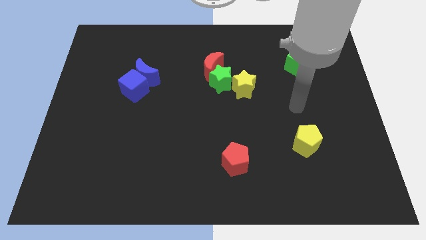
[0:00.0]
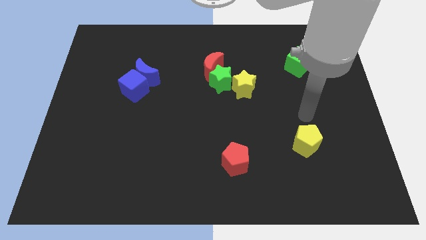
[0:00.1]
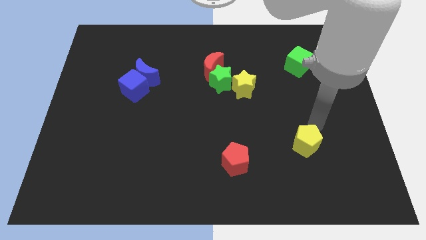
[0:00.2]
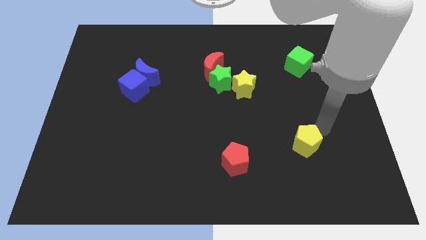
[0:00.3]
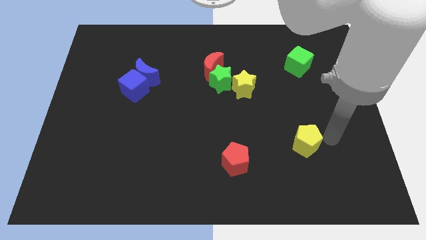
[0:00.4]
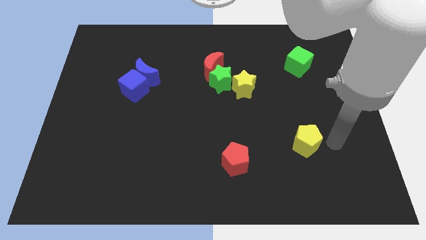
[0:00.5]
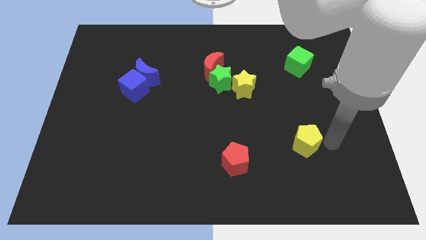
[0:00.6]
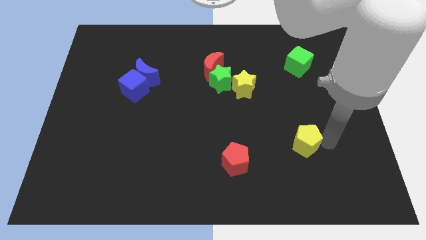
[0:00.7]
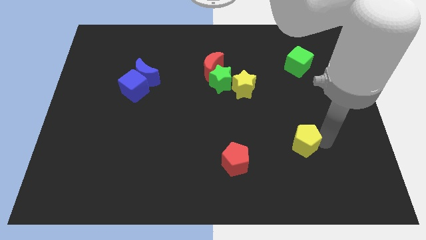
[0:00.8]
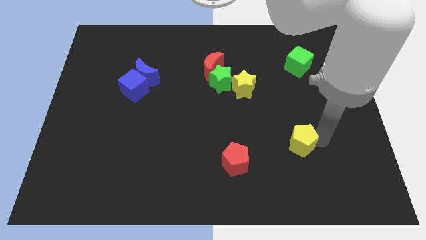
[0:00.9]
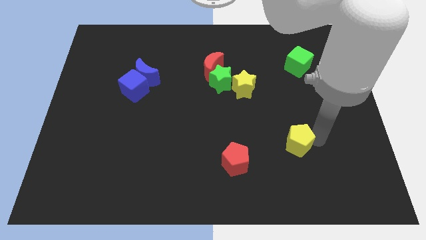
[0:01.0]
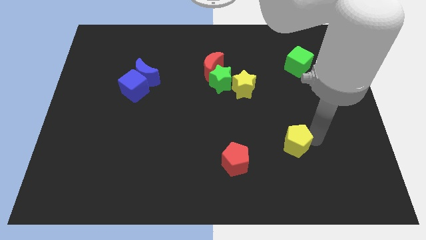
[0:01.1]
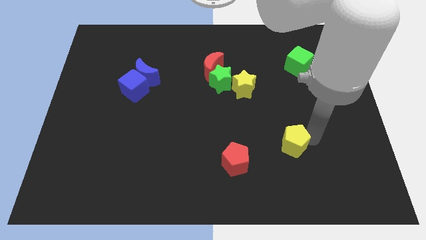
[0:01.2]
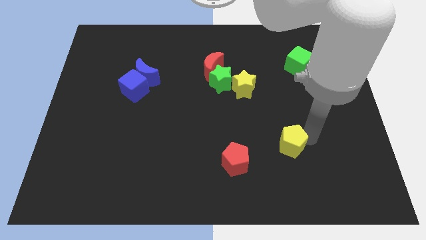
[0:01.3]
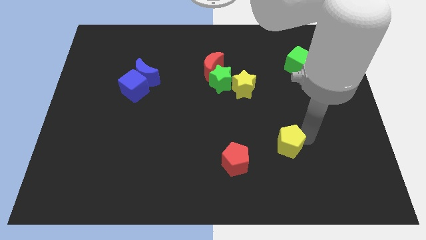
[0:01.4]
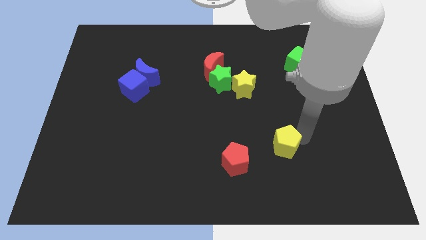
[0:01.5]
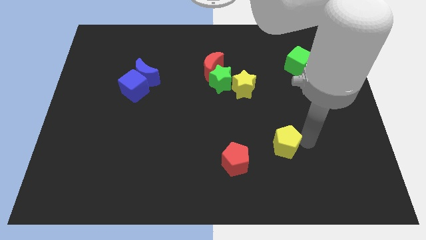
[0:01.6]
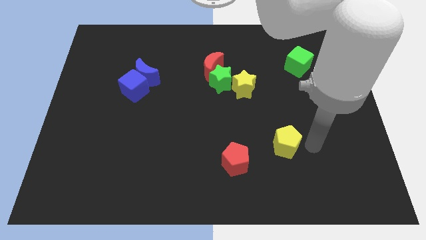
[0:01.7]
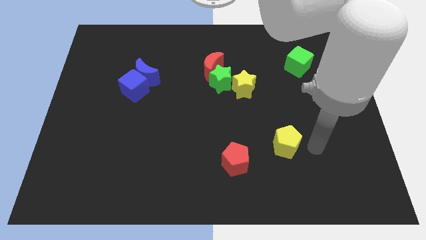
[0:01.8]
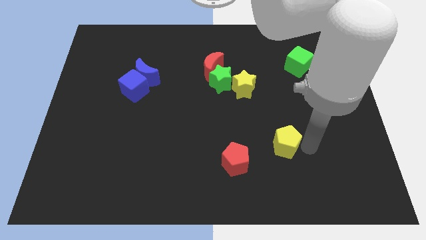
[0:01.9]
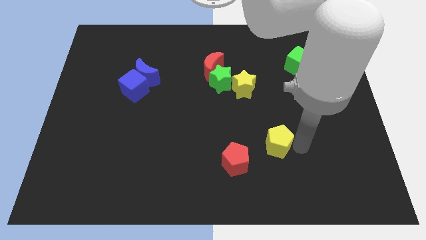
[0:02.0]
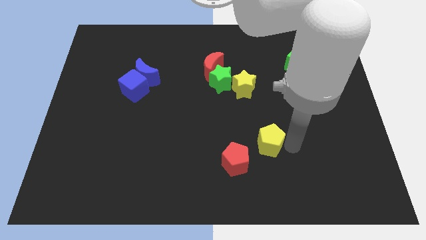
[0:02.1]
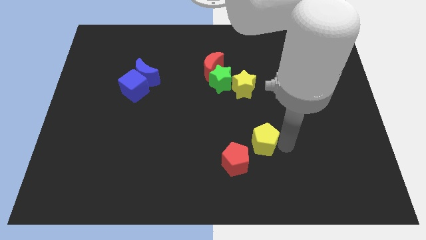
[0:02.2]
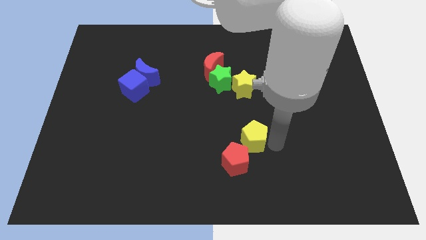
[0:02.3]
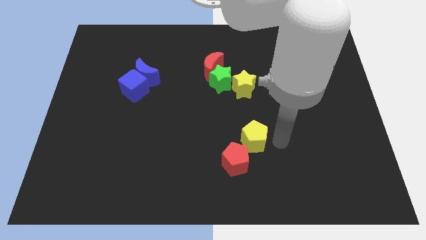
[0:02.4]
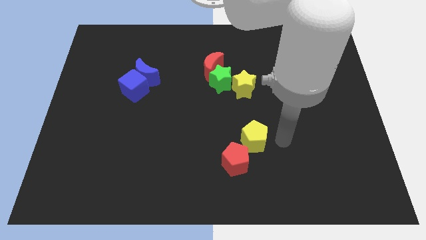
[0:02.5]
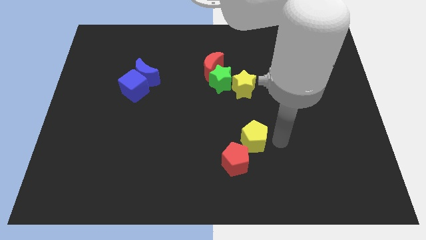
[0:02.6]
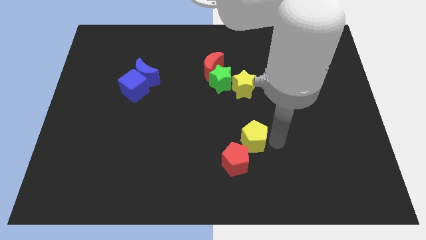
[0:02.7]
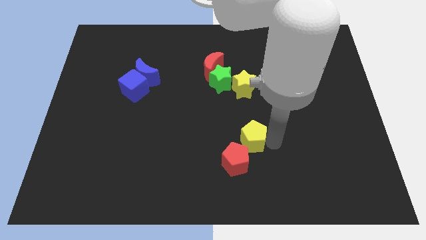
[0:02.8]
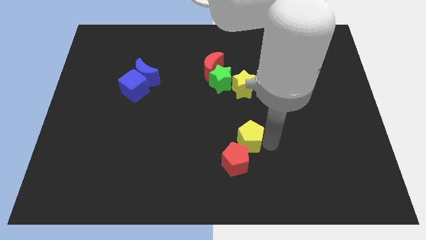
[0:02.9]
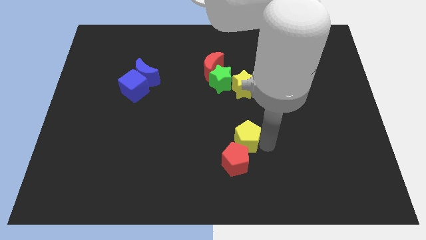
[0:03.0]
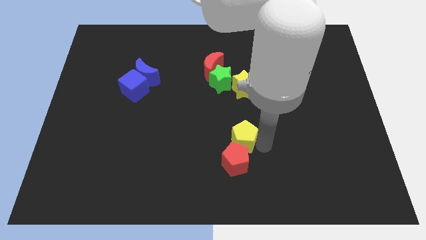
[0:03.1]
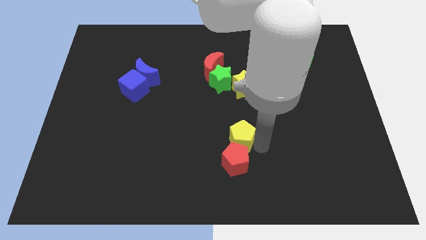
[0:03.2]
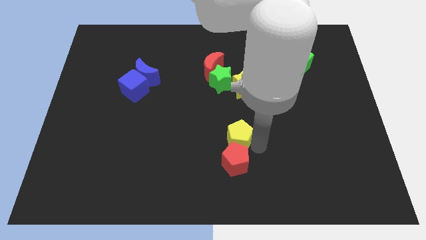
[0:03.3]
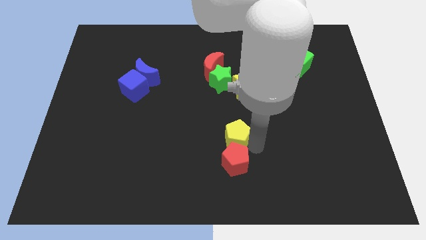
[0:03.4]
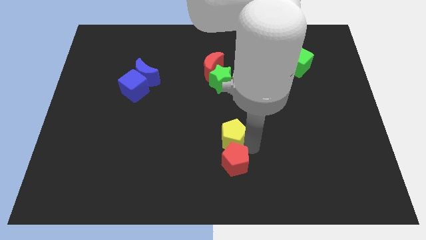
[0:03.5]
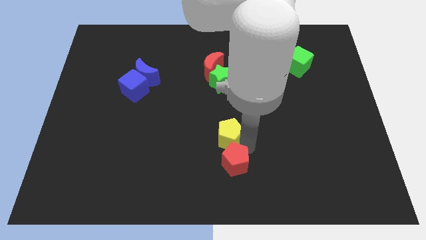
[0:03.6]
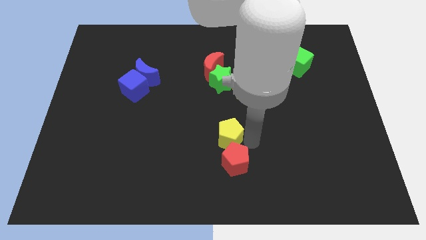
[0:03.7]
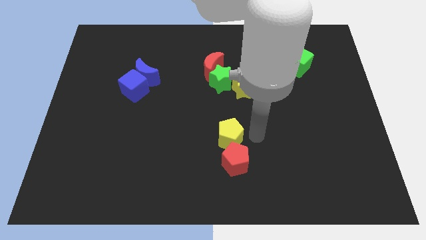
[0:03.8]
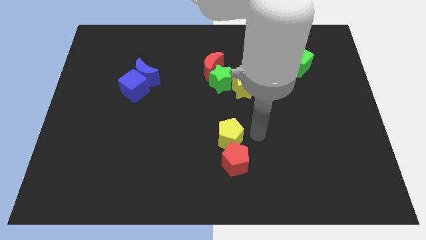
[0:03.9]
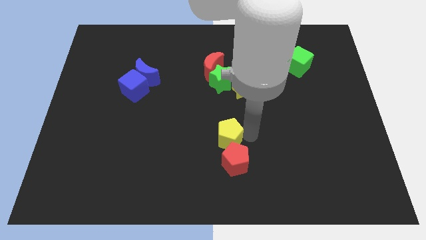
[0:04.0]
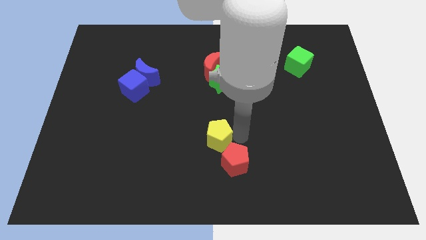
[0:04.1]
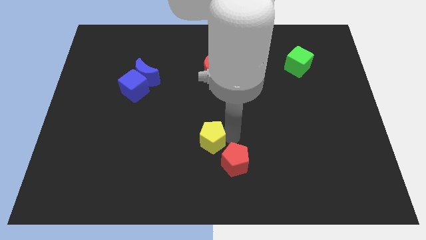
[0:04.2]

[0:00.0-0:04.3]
slide the yellow pentagon left

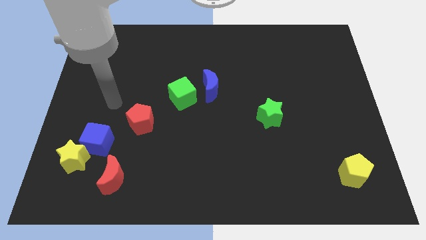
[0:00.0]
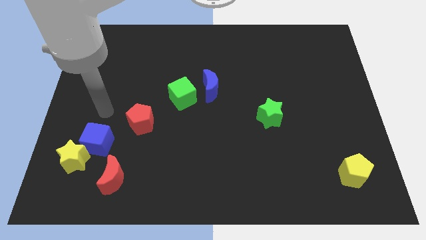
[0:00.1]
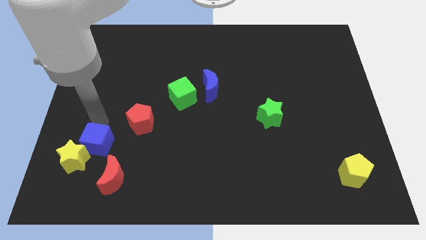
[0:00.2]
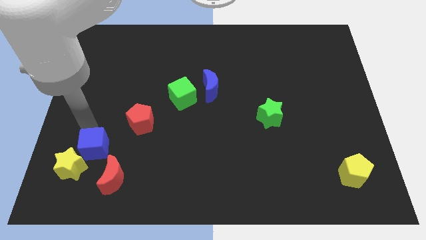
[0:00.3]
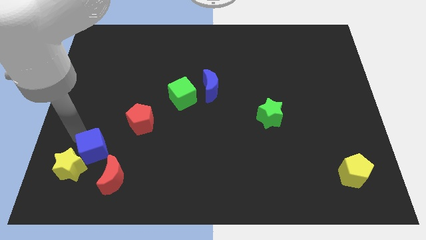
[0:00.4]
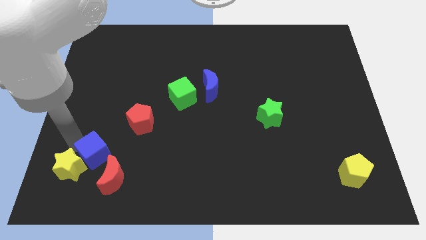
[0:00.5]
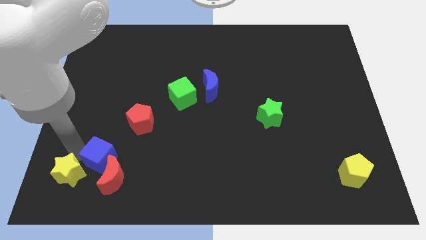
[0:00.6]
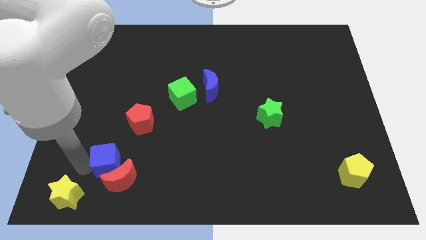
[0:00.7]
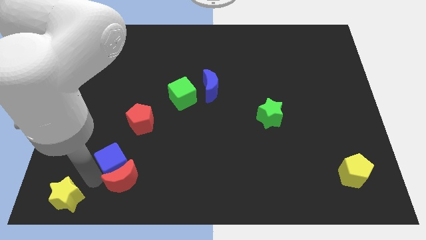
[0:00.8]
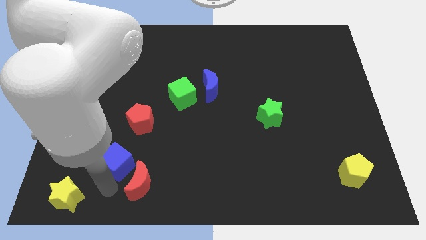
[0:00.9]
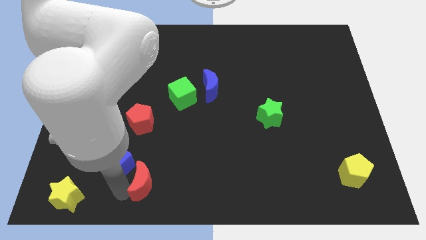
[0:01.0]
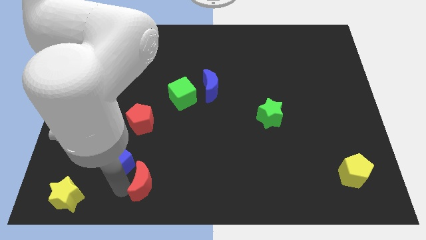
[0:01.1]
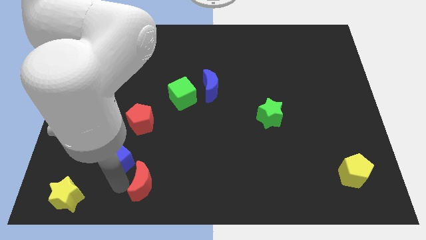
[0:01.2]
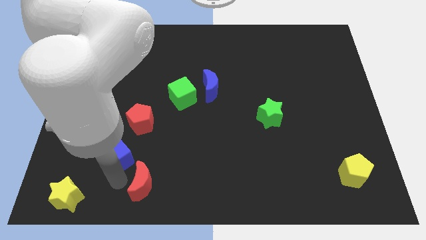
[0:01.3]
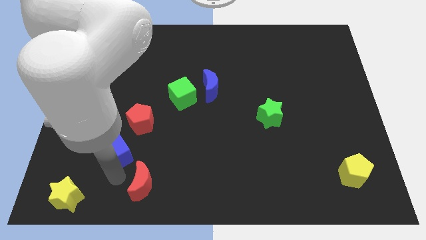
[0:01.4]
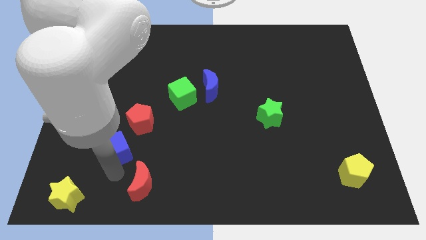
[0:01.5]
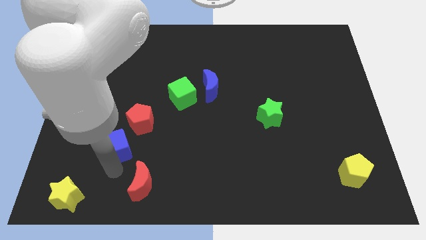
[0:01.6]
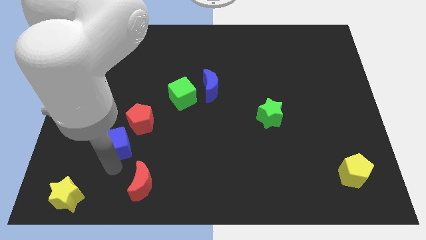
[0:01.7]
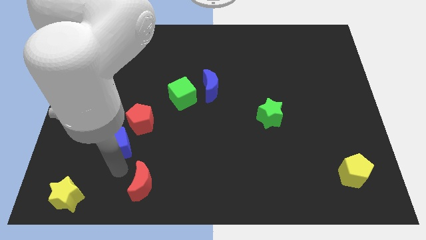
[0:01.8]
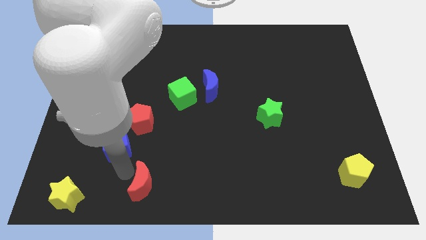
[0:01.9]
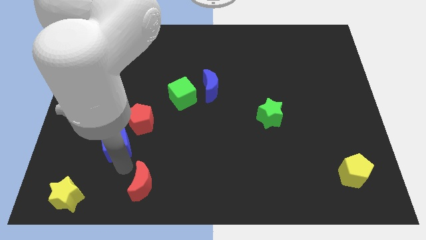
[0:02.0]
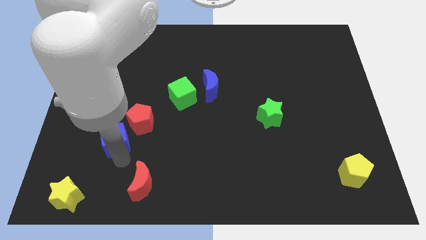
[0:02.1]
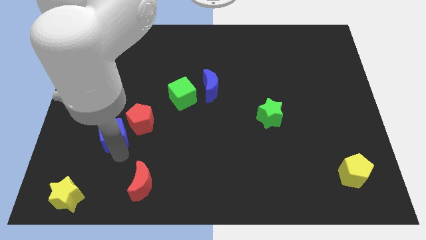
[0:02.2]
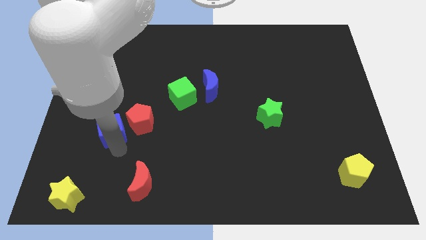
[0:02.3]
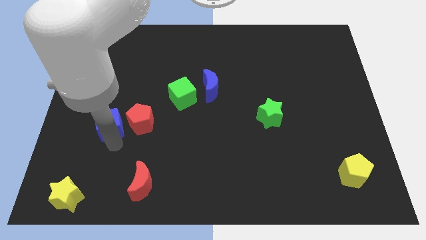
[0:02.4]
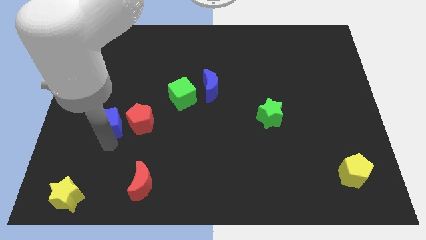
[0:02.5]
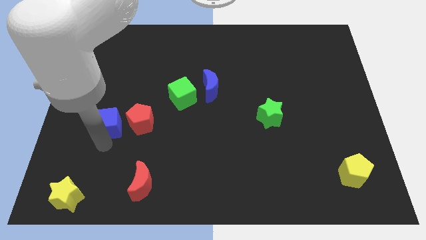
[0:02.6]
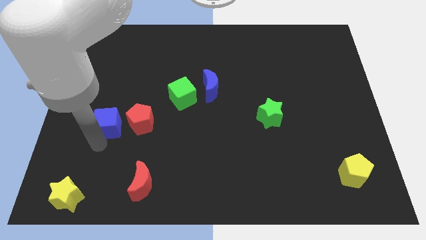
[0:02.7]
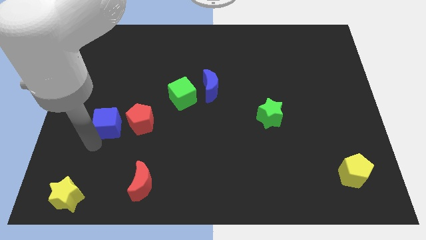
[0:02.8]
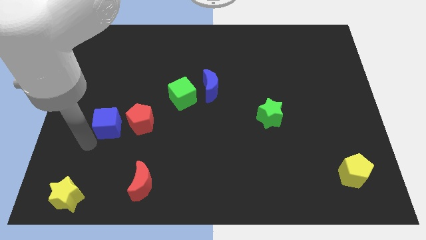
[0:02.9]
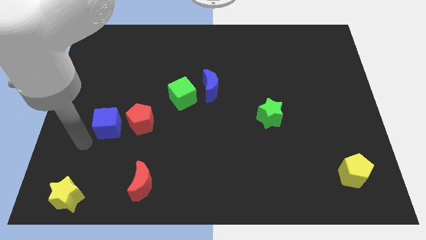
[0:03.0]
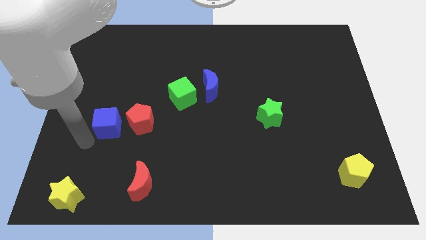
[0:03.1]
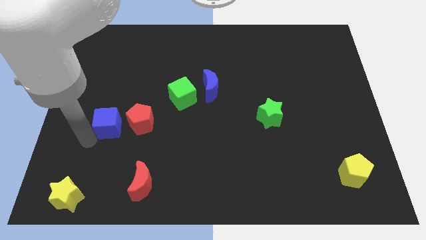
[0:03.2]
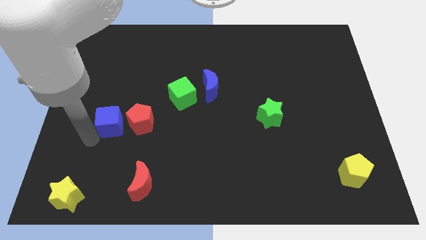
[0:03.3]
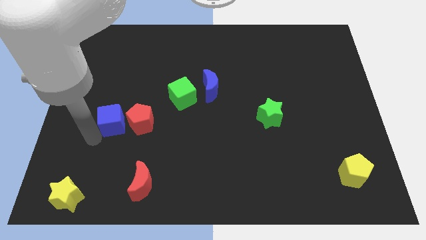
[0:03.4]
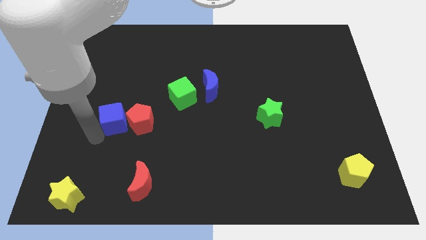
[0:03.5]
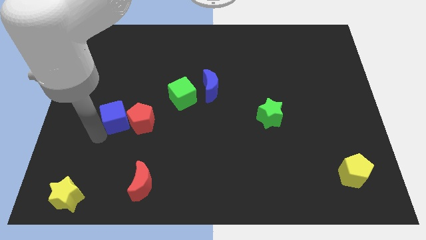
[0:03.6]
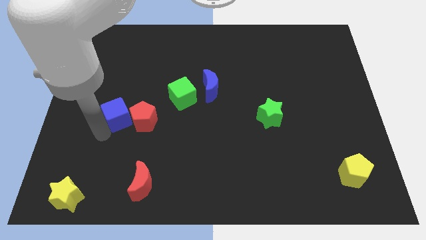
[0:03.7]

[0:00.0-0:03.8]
slide the blue cube a bit upwards and right

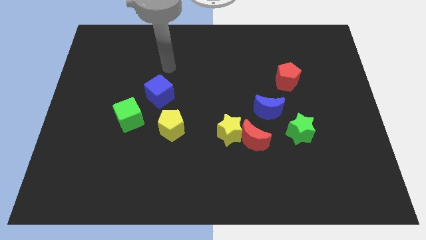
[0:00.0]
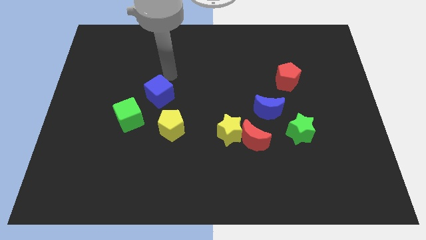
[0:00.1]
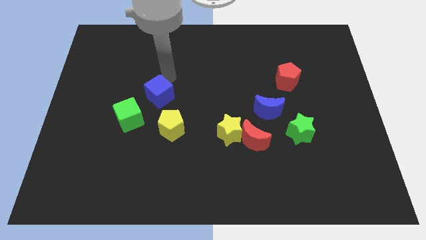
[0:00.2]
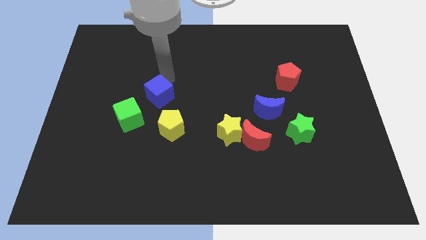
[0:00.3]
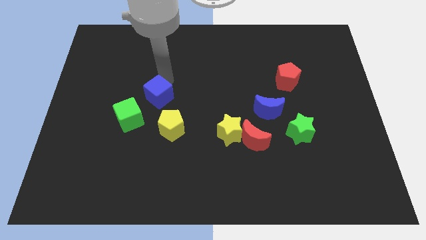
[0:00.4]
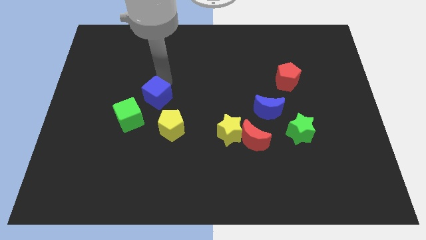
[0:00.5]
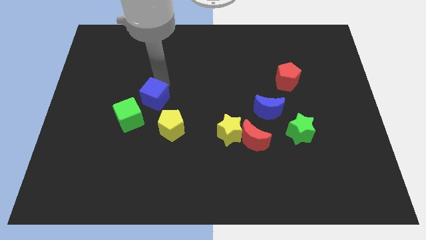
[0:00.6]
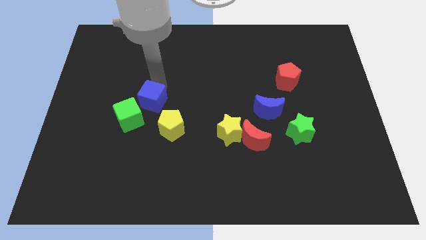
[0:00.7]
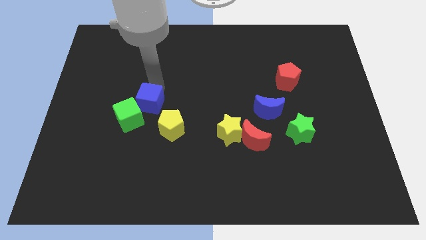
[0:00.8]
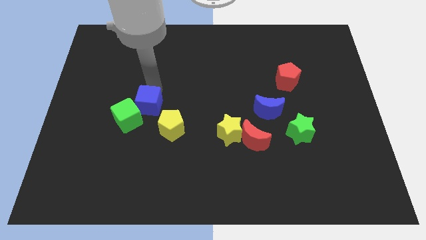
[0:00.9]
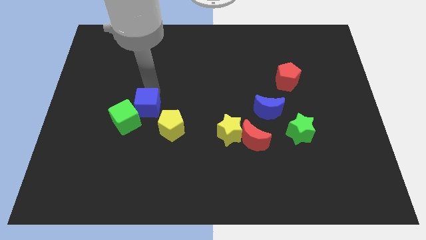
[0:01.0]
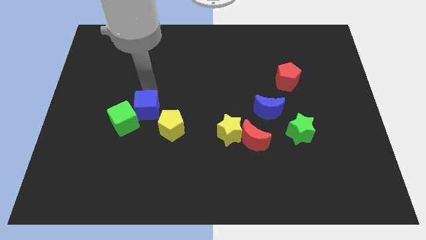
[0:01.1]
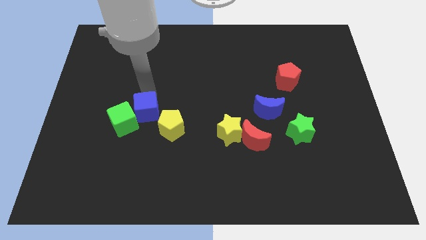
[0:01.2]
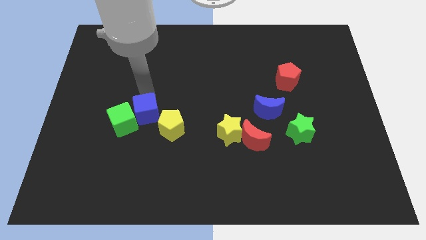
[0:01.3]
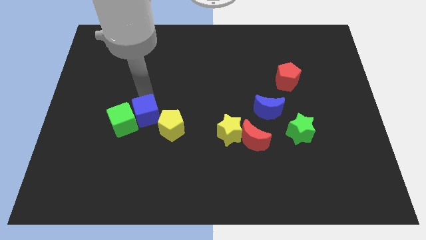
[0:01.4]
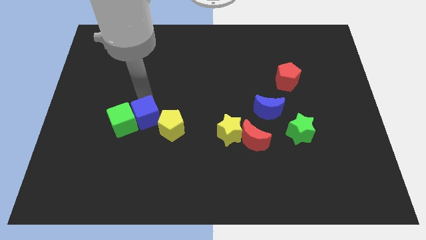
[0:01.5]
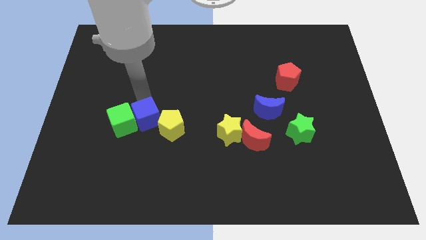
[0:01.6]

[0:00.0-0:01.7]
move the blue cube a little downwards
